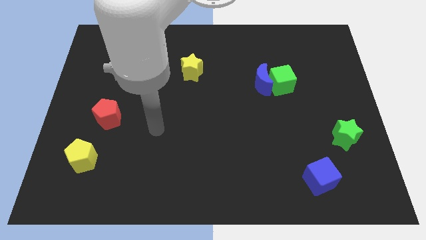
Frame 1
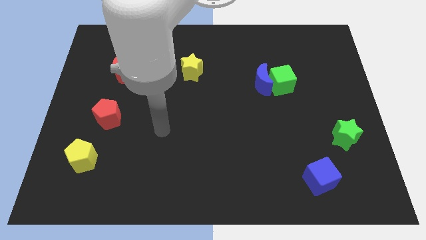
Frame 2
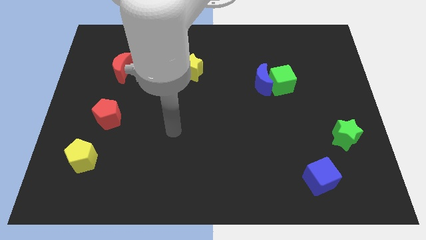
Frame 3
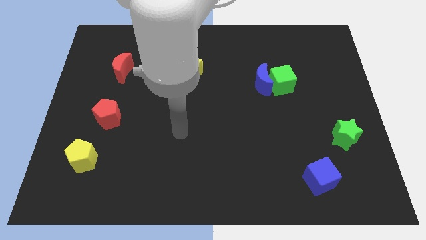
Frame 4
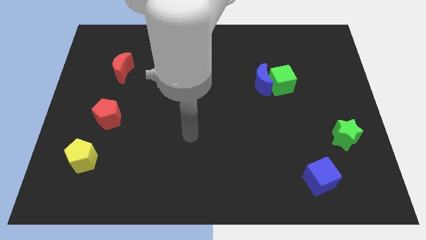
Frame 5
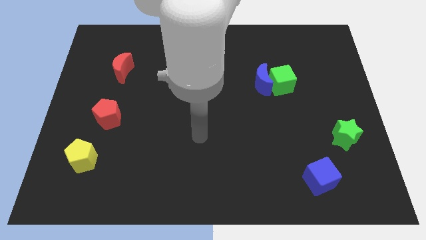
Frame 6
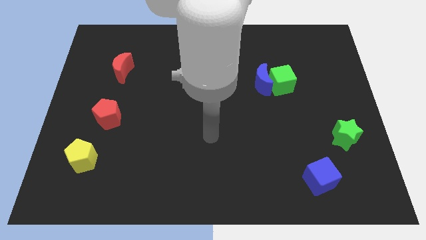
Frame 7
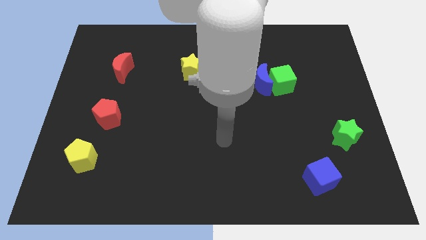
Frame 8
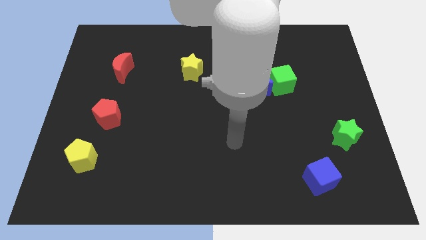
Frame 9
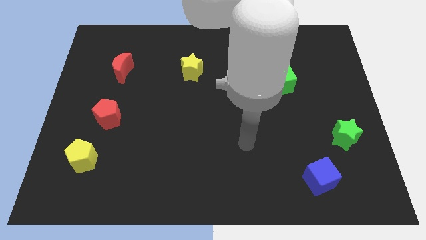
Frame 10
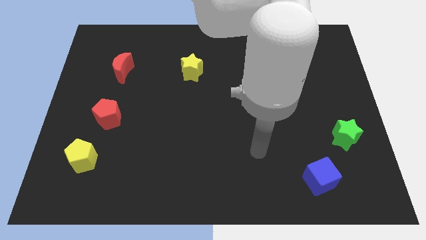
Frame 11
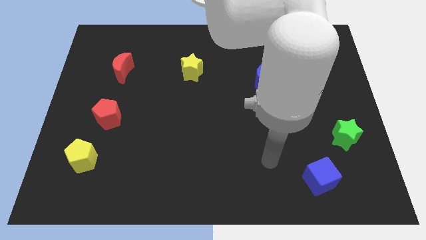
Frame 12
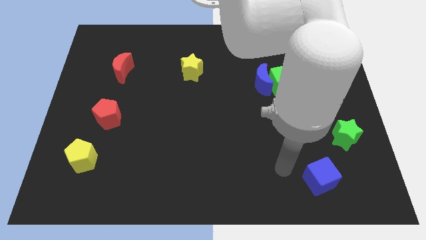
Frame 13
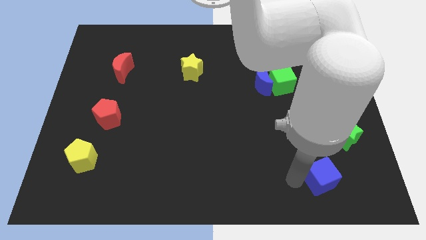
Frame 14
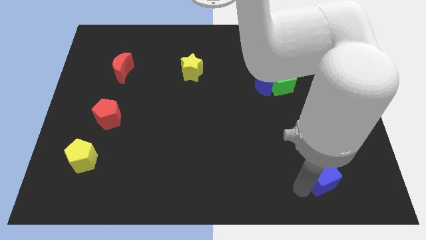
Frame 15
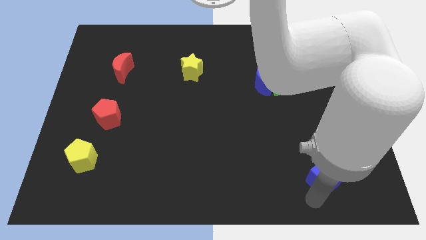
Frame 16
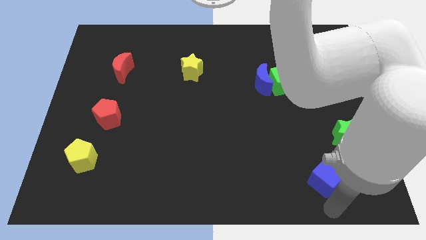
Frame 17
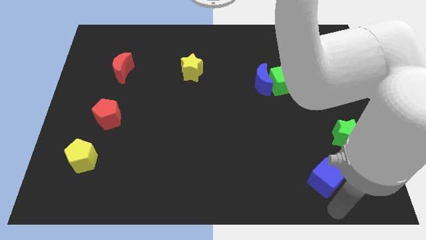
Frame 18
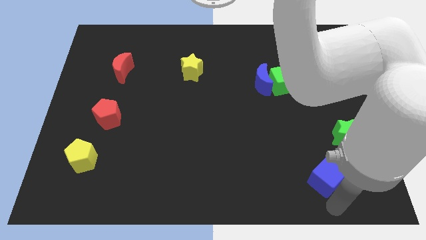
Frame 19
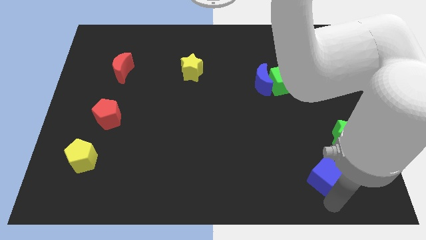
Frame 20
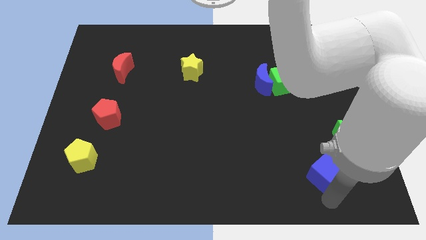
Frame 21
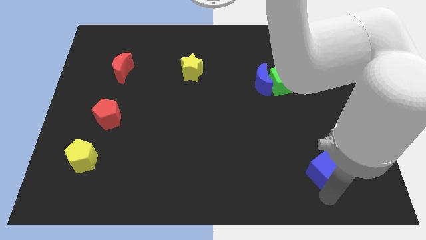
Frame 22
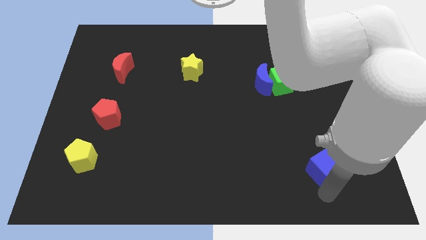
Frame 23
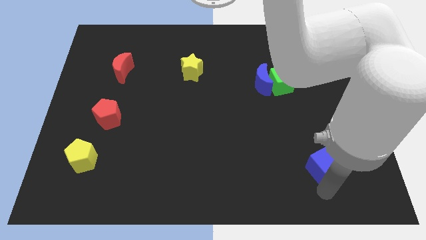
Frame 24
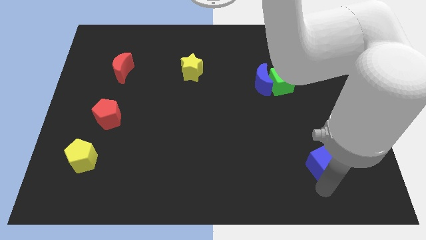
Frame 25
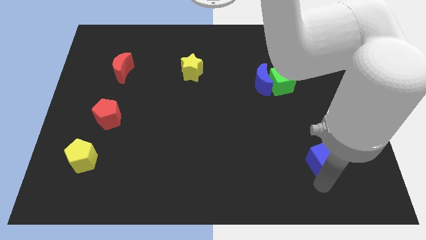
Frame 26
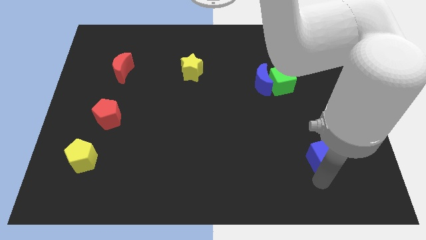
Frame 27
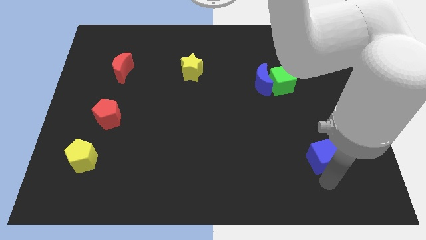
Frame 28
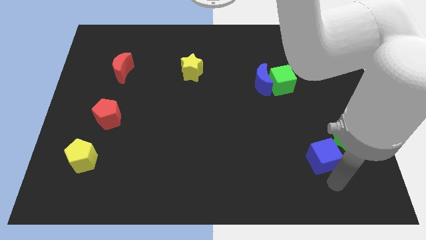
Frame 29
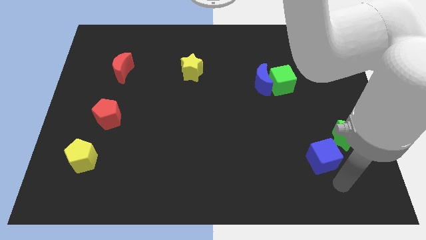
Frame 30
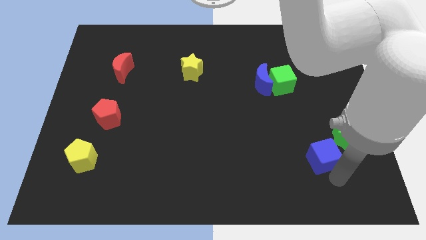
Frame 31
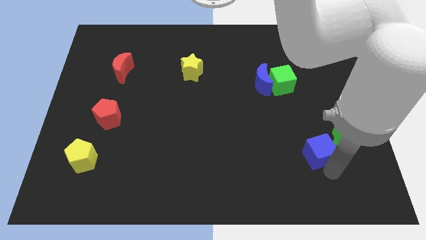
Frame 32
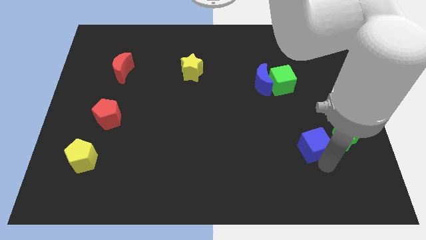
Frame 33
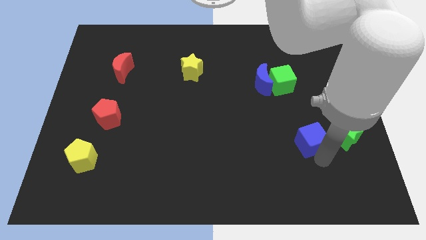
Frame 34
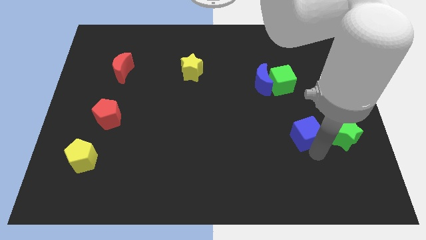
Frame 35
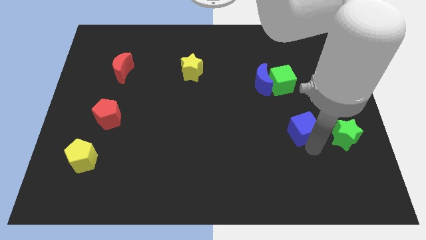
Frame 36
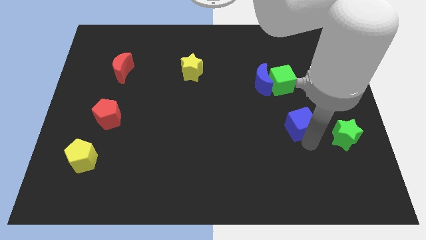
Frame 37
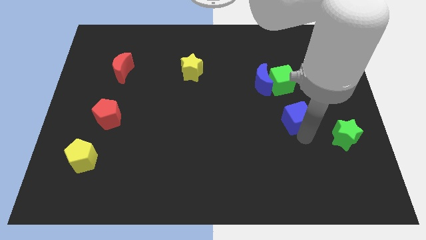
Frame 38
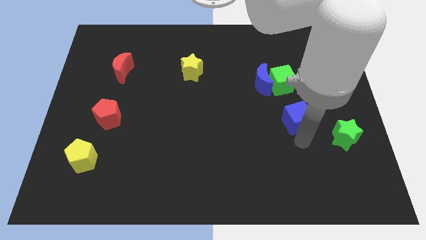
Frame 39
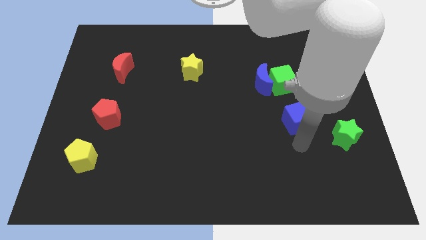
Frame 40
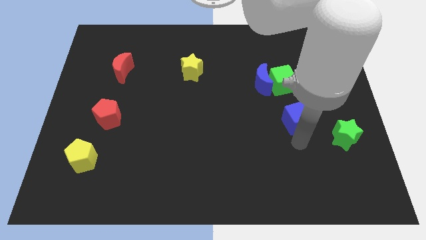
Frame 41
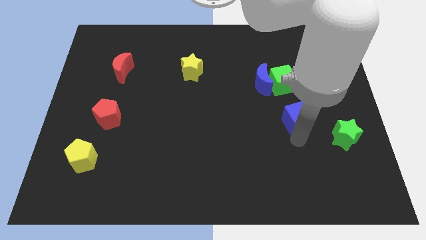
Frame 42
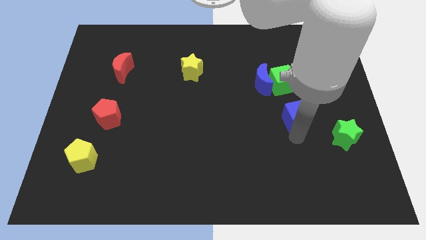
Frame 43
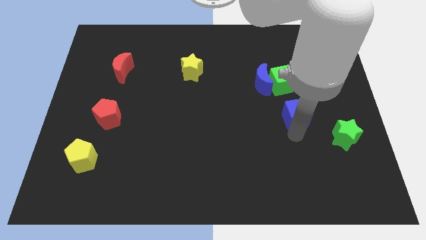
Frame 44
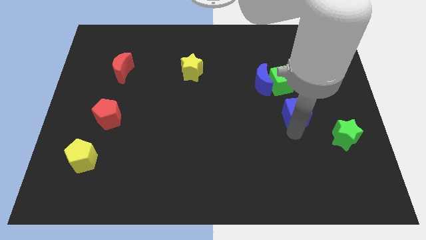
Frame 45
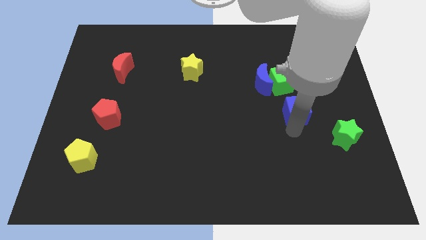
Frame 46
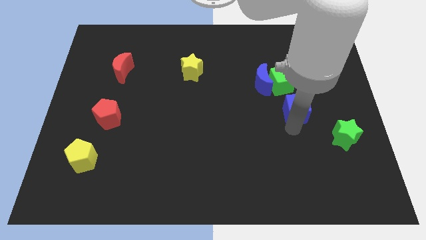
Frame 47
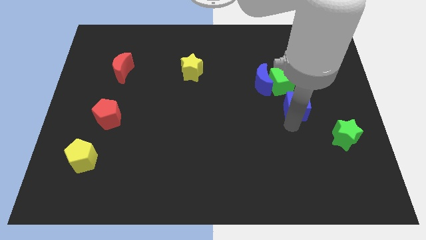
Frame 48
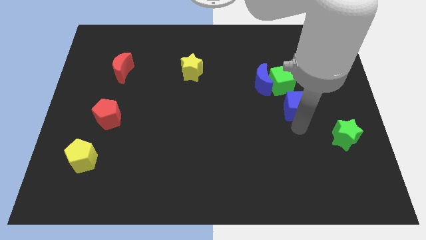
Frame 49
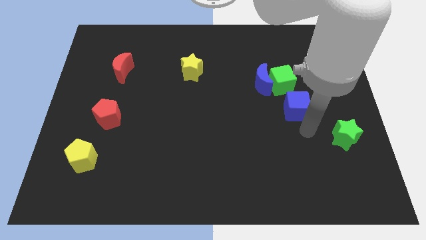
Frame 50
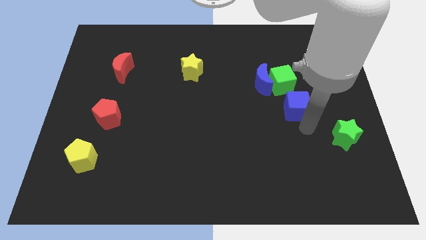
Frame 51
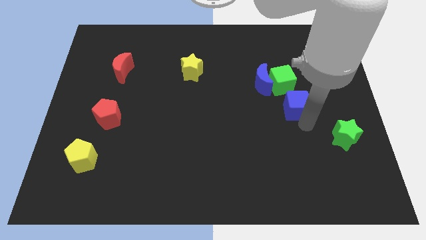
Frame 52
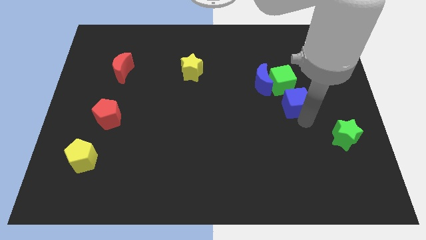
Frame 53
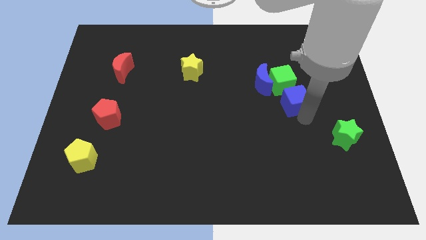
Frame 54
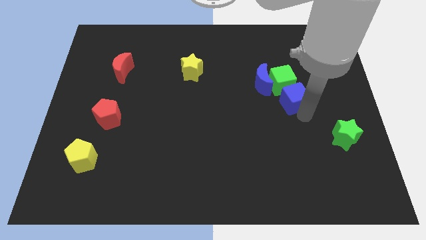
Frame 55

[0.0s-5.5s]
slide the blue cube next to the green cube

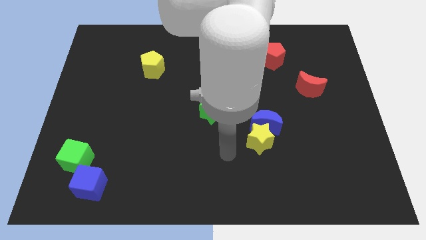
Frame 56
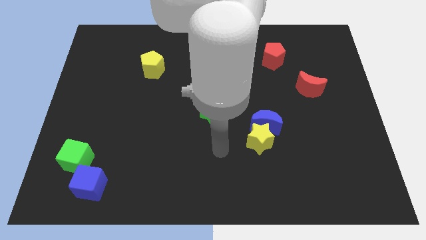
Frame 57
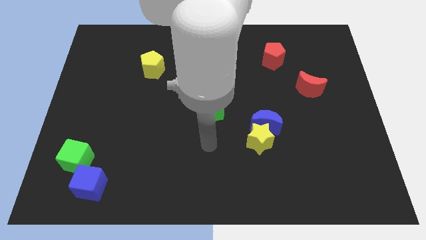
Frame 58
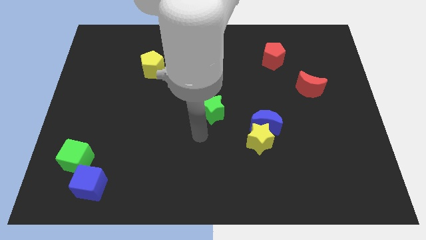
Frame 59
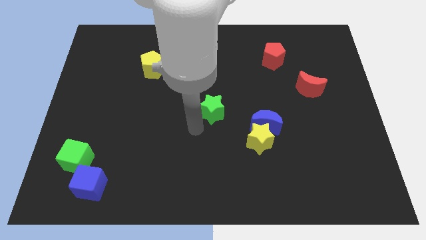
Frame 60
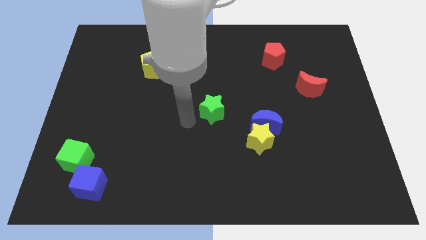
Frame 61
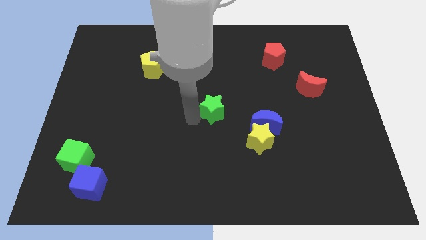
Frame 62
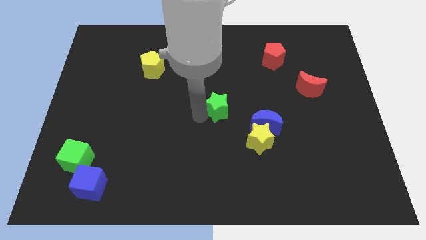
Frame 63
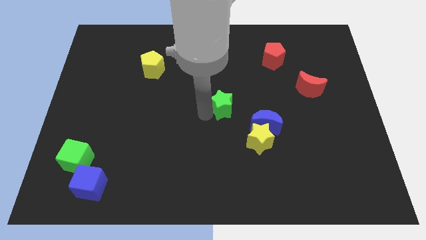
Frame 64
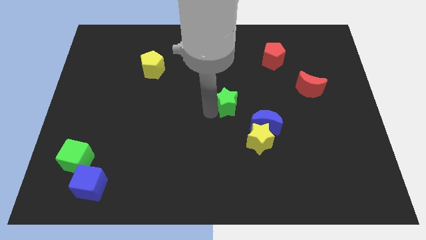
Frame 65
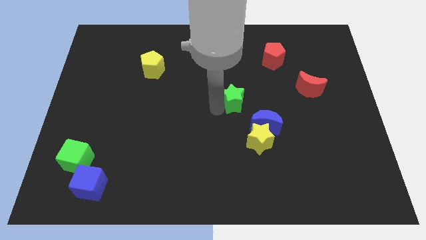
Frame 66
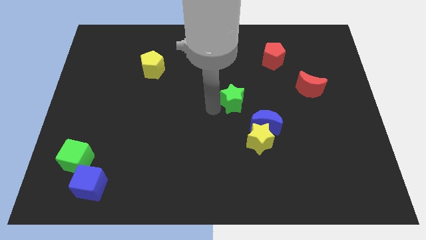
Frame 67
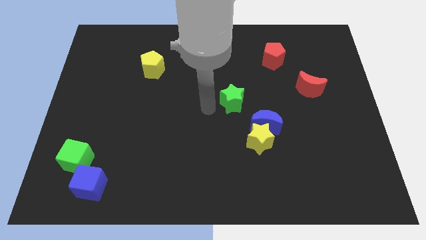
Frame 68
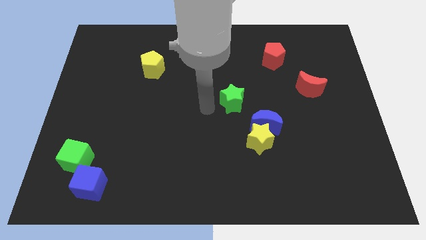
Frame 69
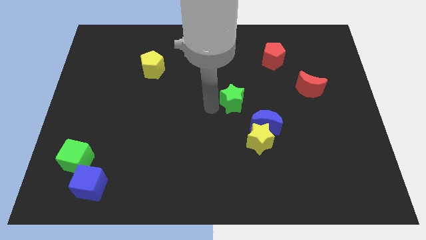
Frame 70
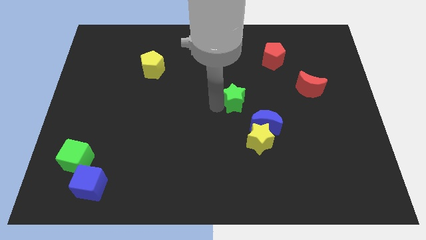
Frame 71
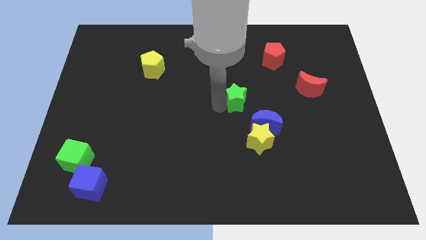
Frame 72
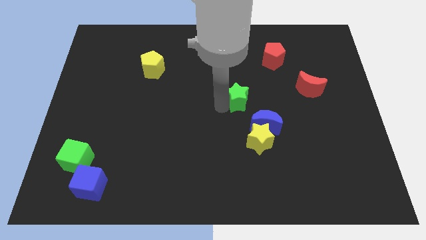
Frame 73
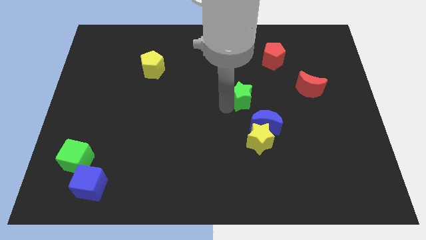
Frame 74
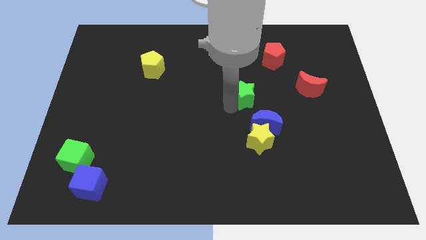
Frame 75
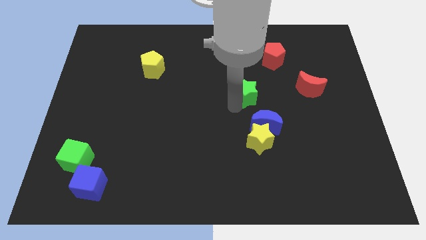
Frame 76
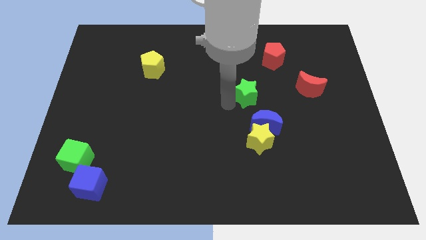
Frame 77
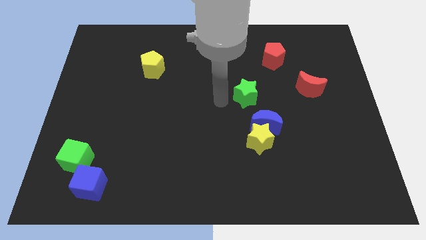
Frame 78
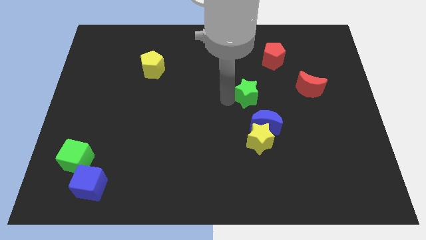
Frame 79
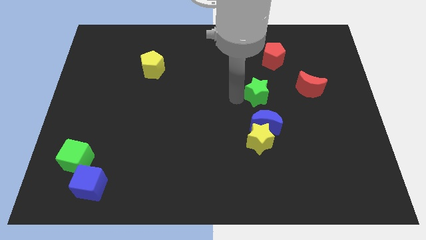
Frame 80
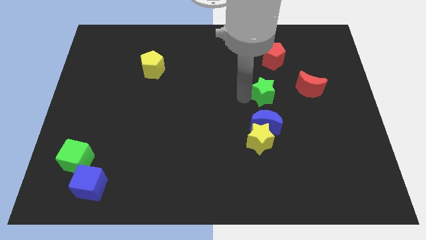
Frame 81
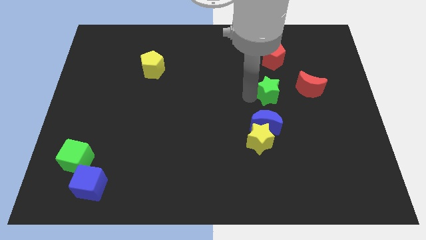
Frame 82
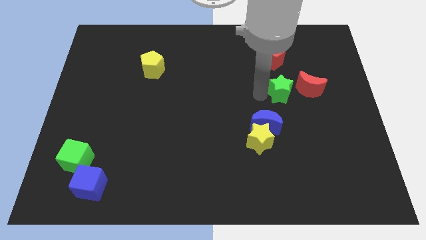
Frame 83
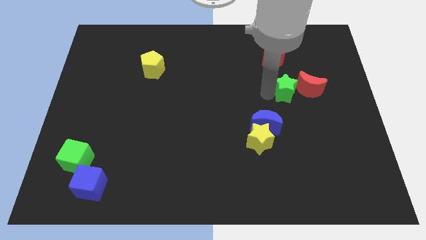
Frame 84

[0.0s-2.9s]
push the green star to the red moon
